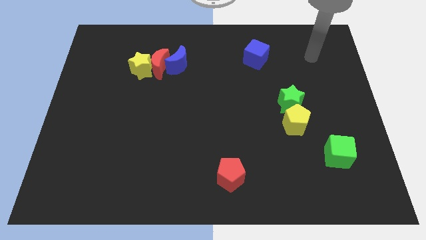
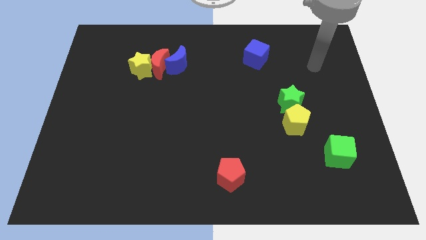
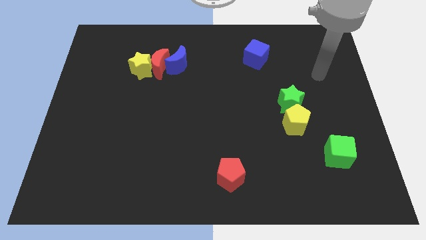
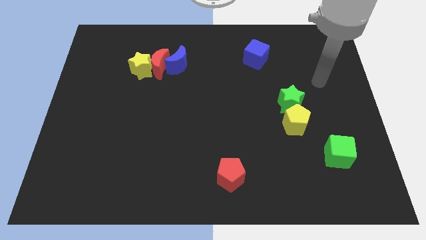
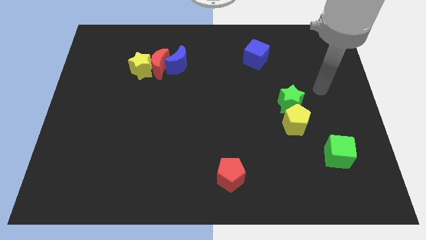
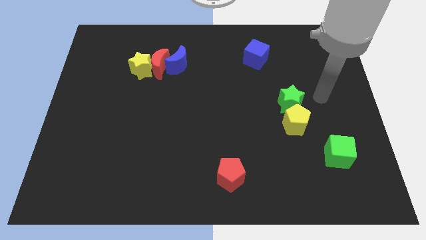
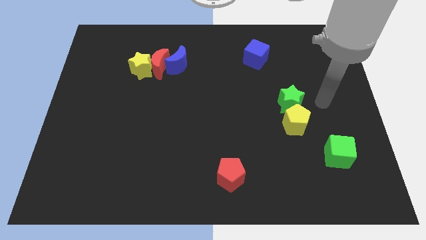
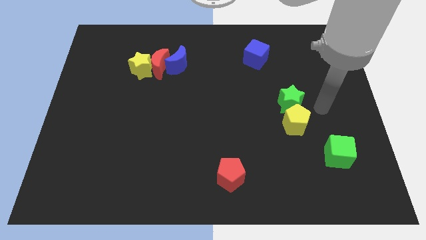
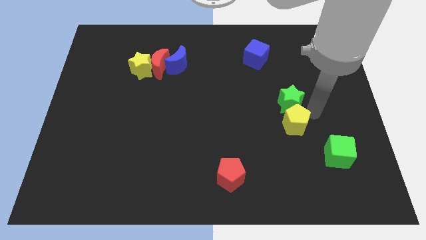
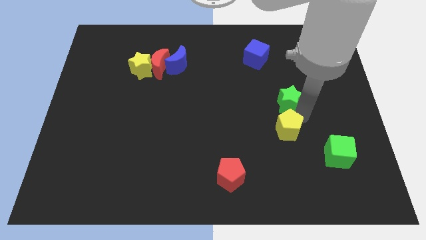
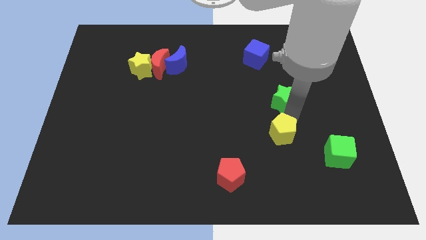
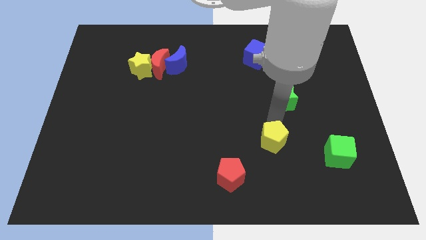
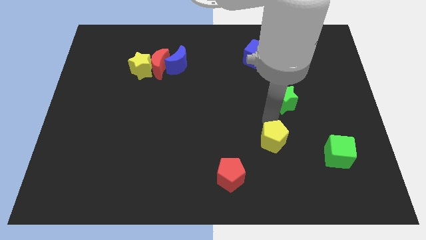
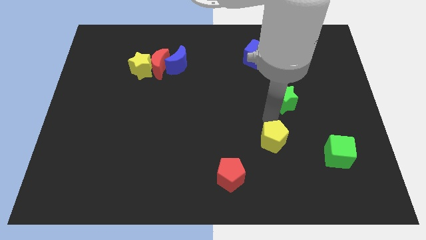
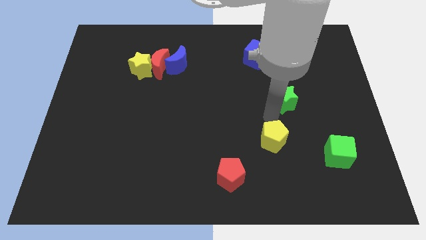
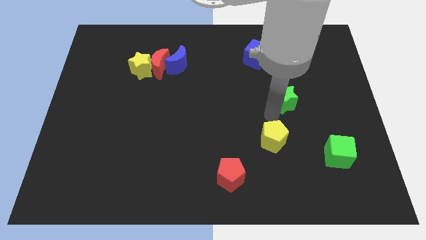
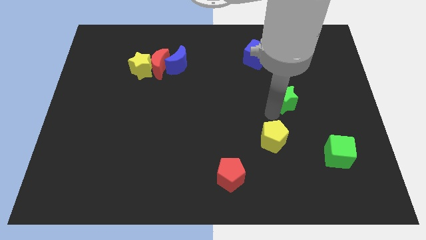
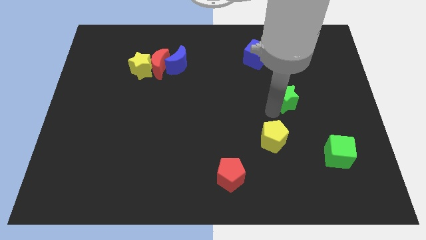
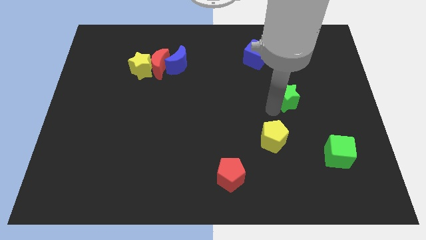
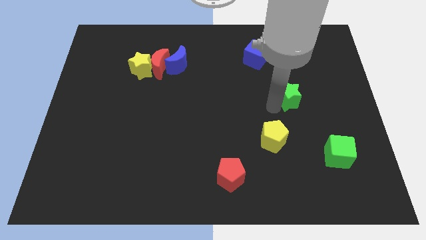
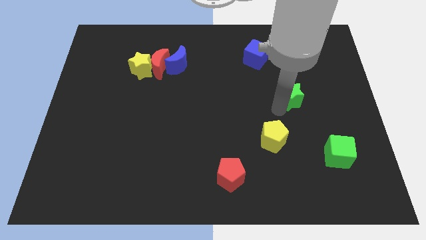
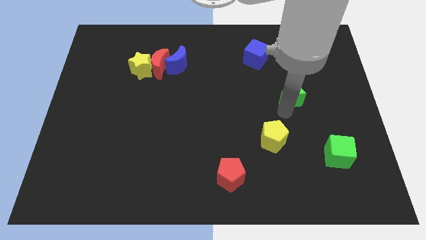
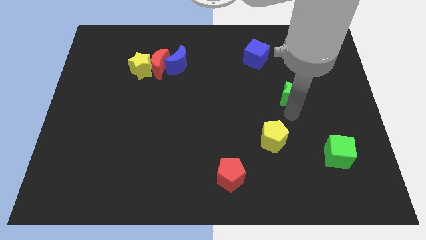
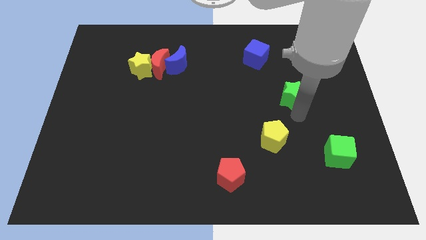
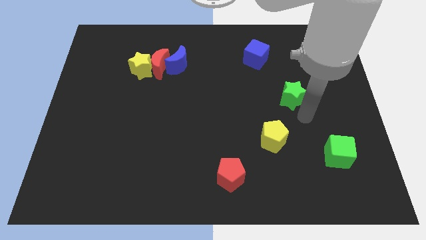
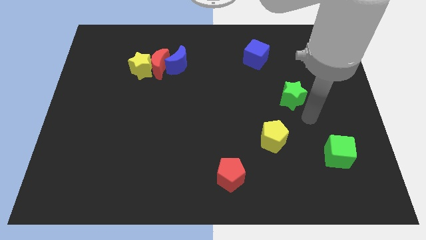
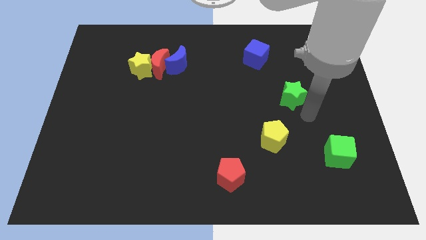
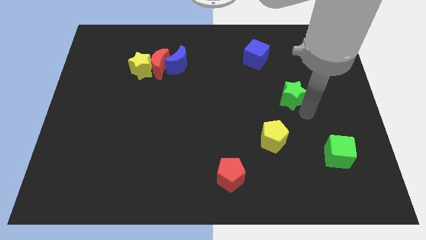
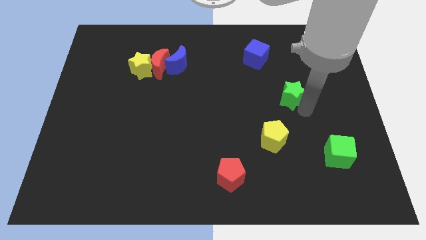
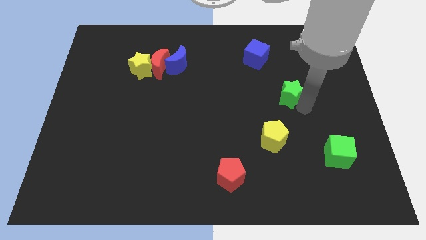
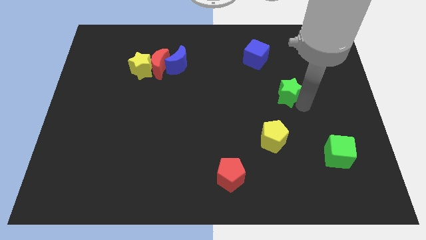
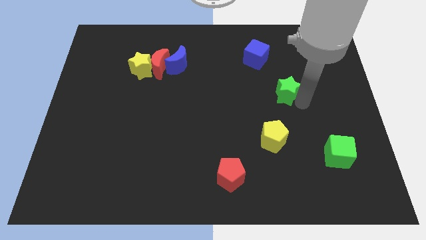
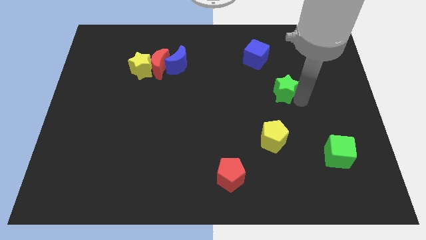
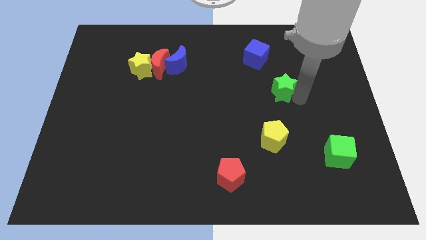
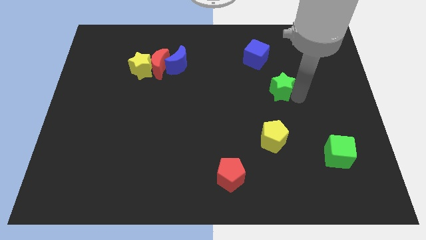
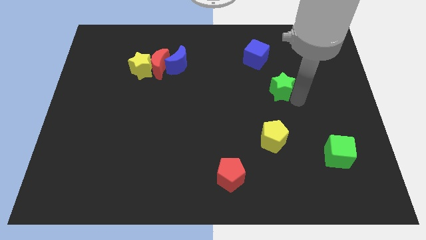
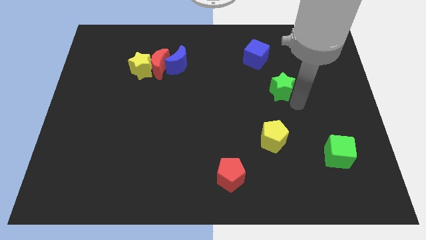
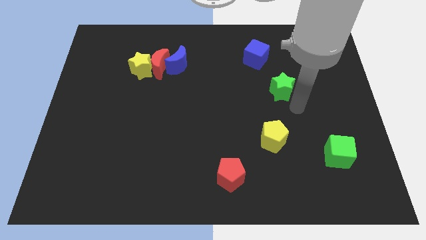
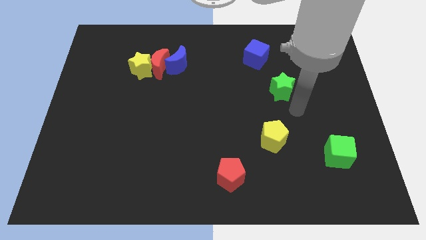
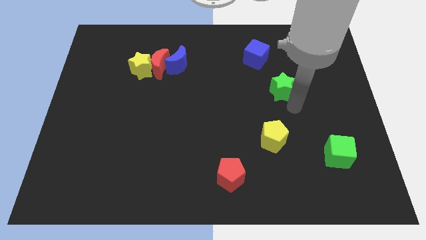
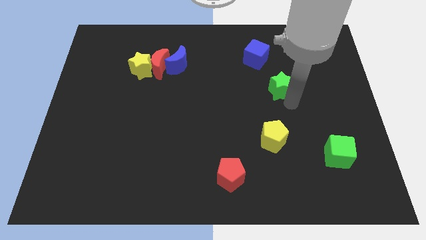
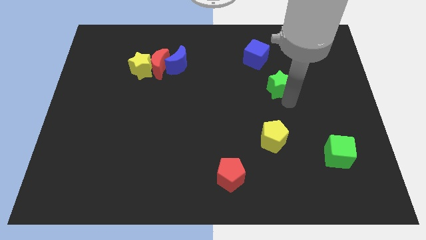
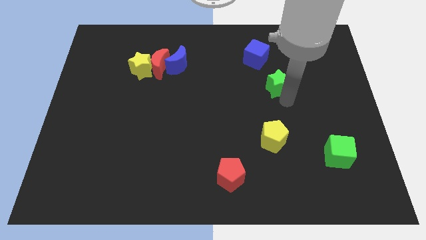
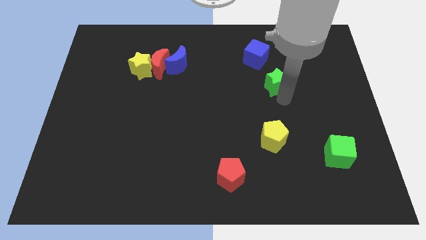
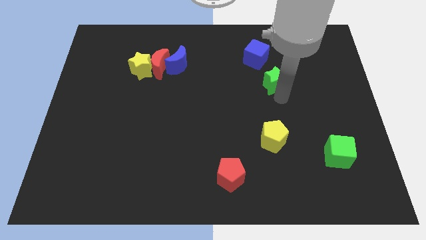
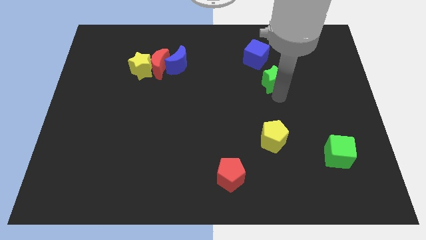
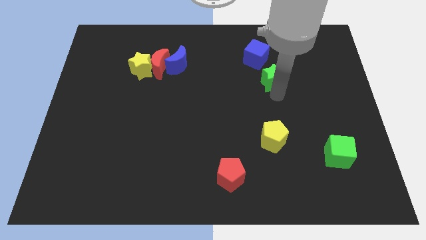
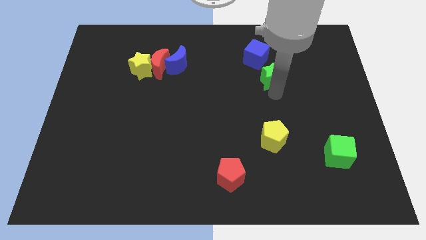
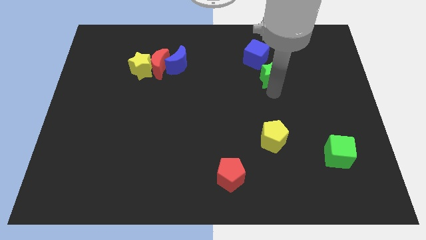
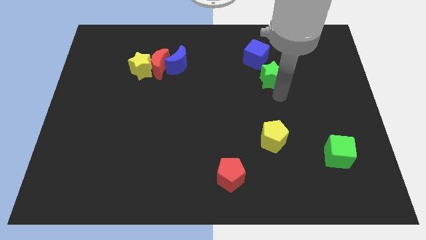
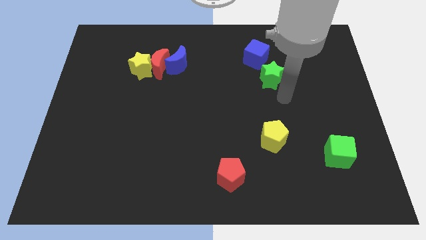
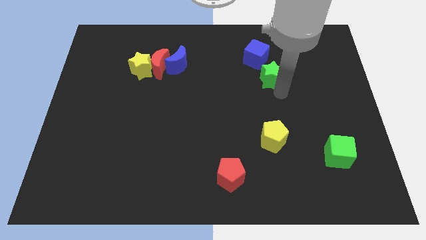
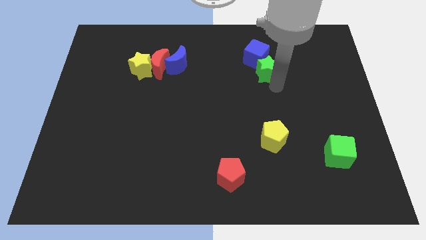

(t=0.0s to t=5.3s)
push the green star to the blue cube

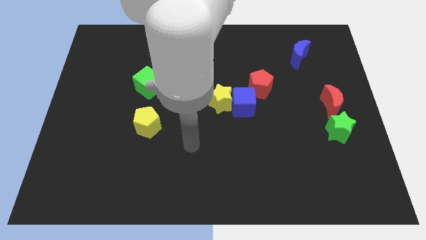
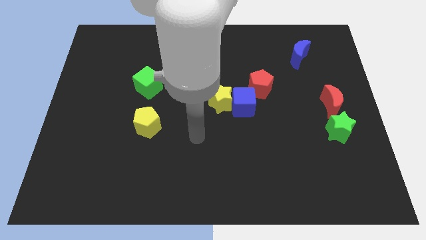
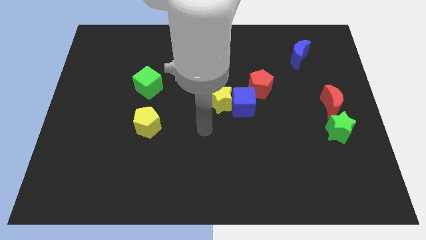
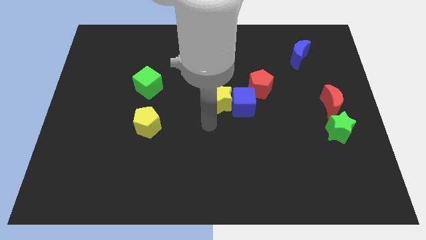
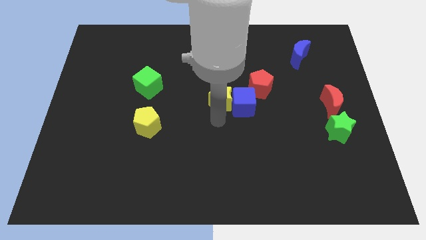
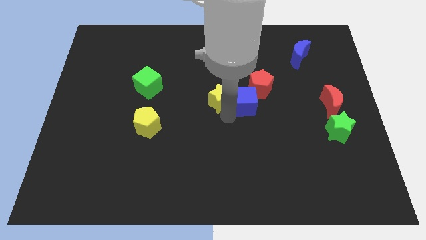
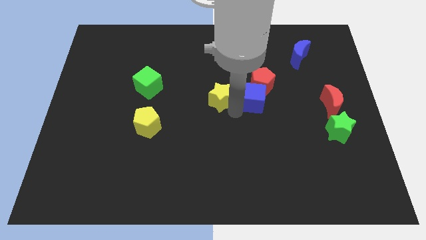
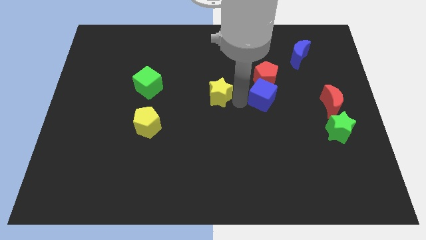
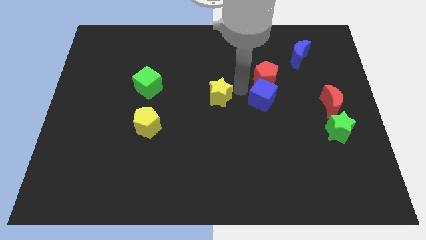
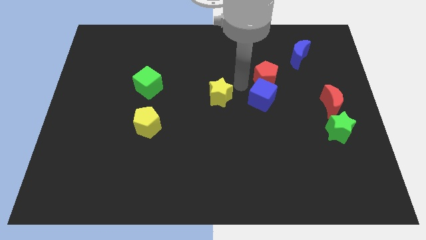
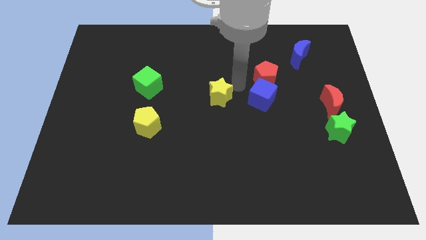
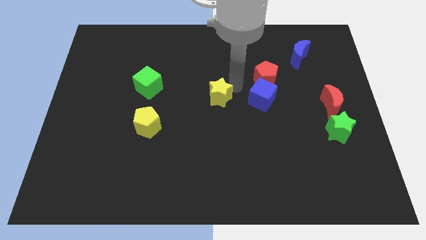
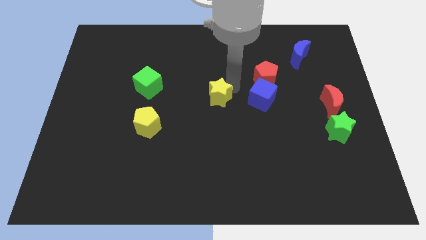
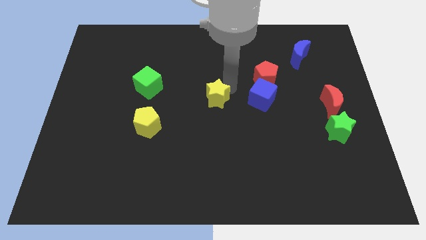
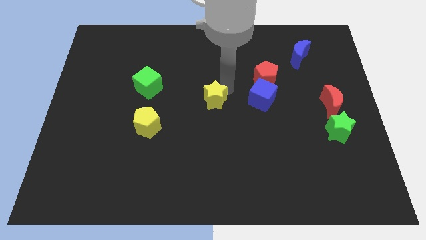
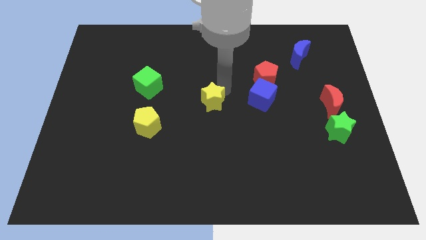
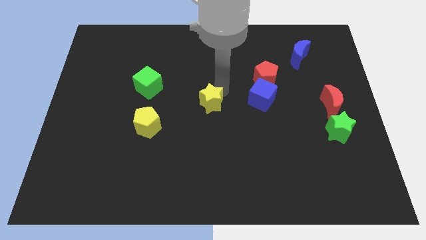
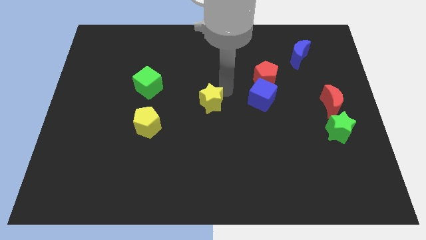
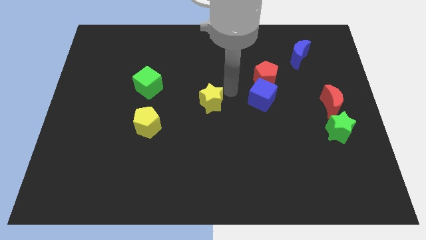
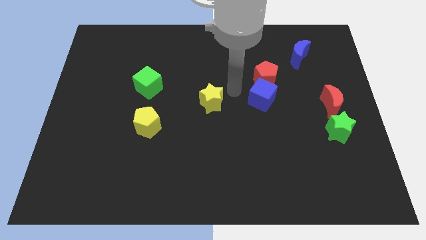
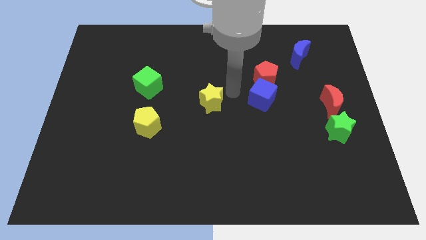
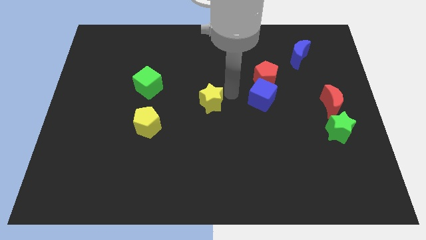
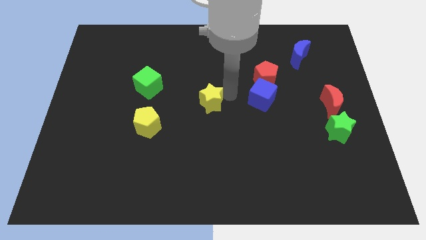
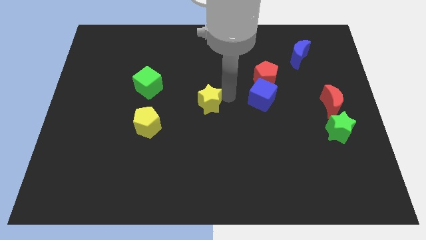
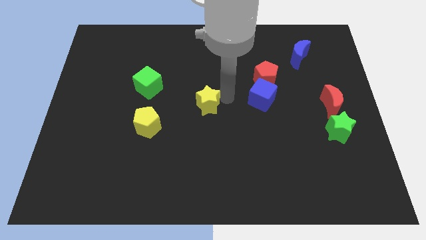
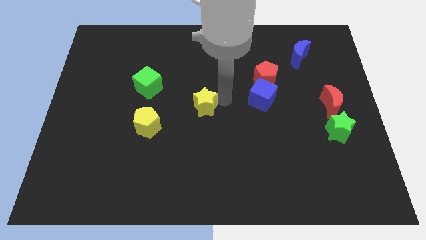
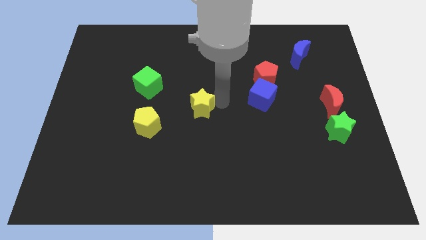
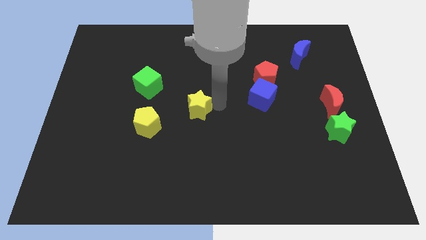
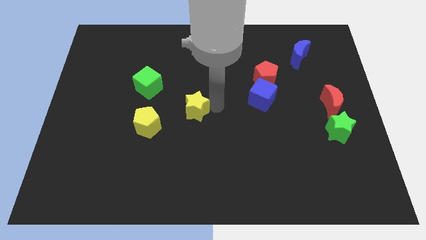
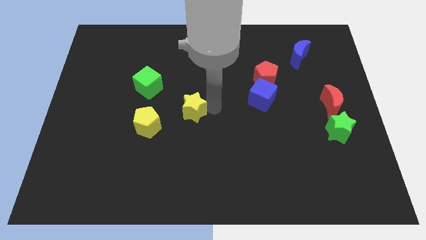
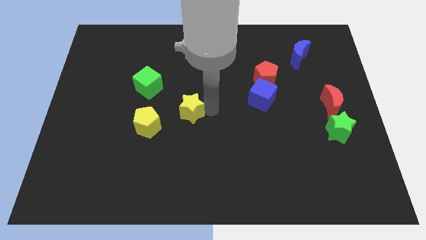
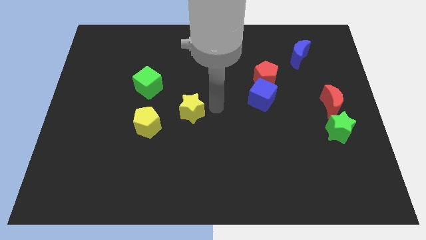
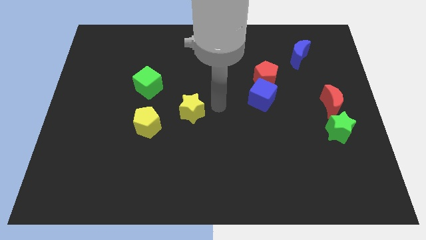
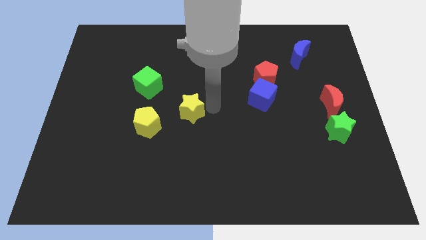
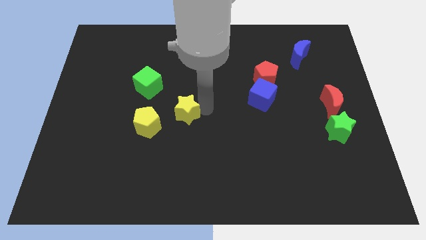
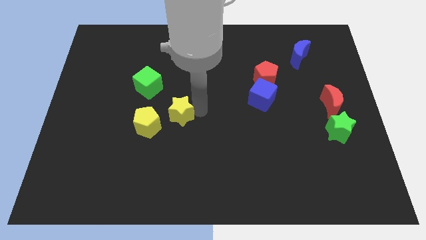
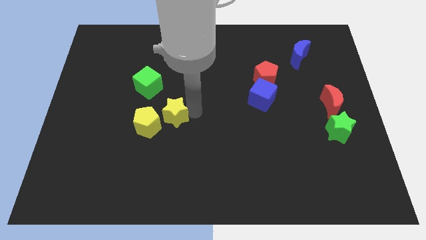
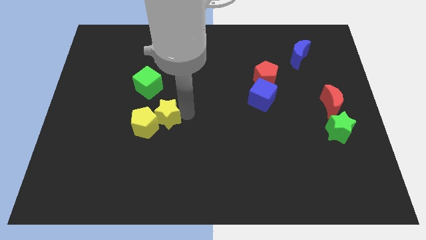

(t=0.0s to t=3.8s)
slide the yellow star to the yellow pentagon
